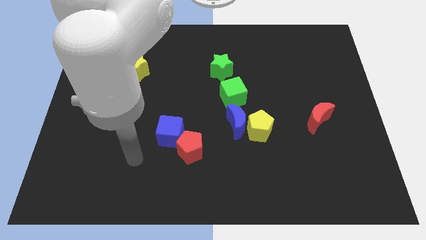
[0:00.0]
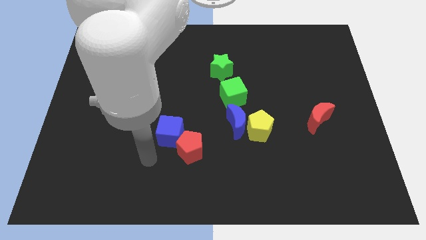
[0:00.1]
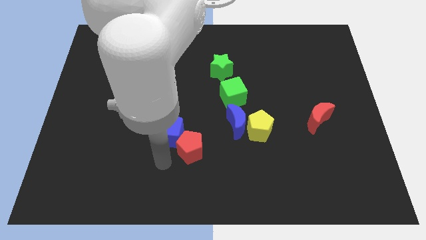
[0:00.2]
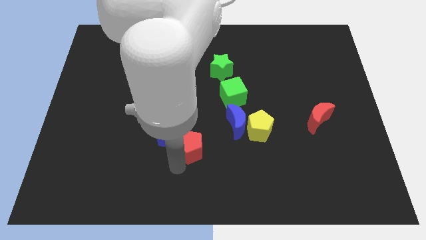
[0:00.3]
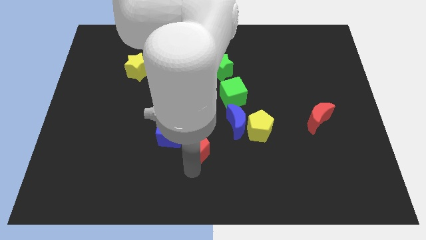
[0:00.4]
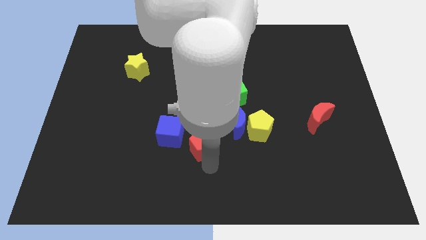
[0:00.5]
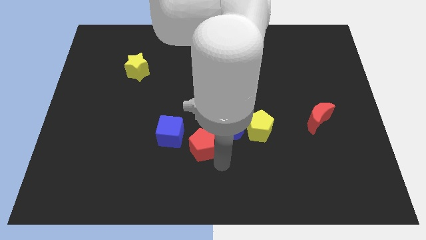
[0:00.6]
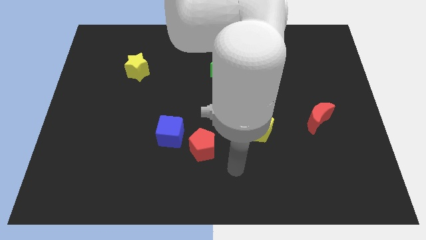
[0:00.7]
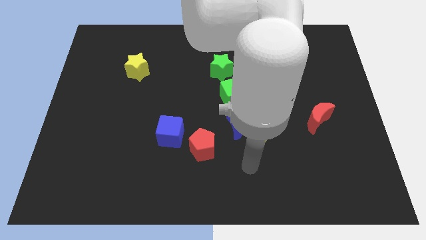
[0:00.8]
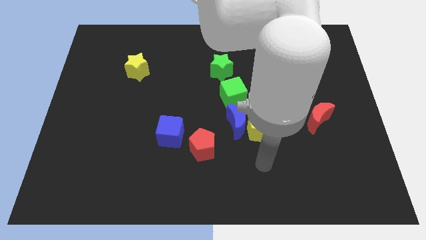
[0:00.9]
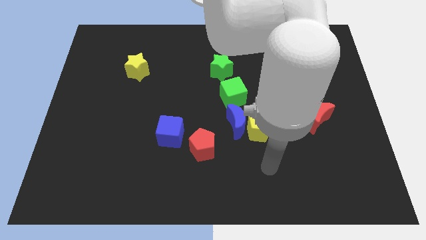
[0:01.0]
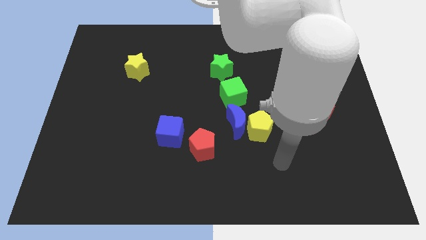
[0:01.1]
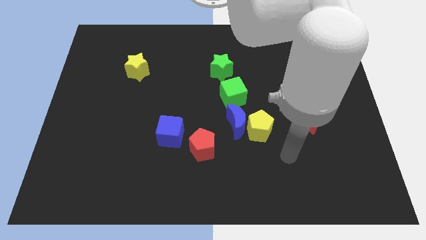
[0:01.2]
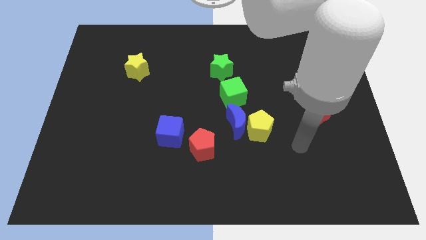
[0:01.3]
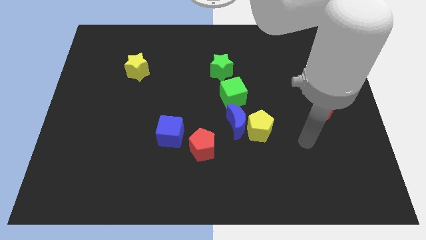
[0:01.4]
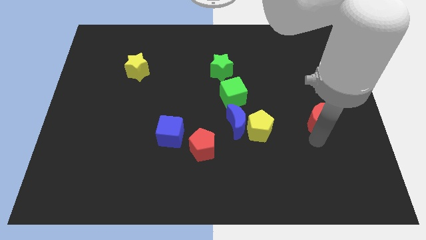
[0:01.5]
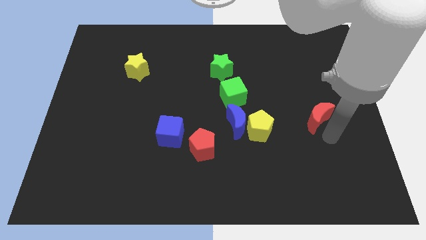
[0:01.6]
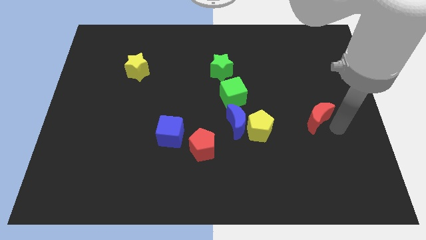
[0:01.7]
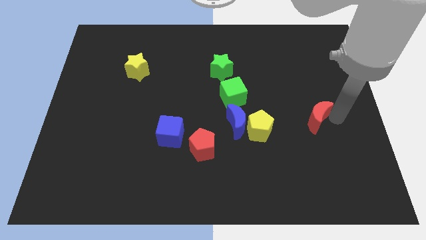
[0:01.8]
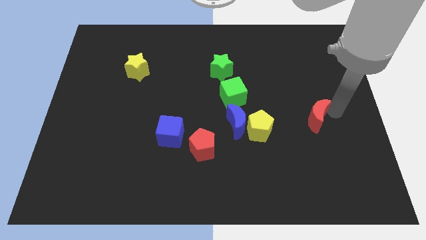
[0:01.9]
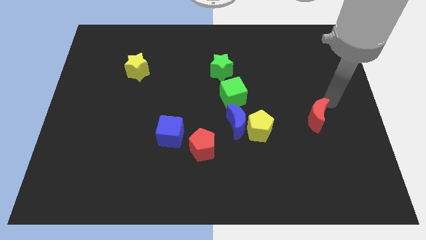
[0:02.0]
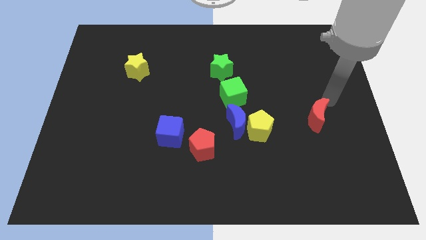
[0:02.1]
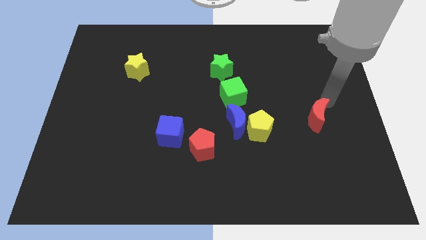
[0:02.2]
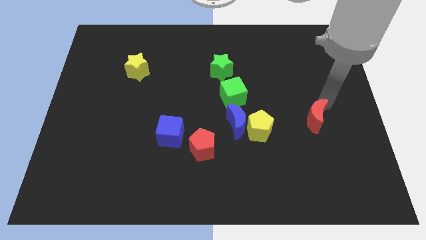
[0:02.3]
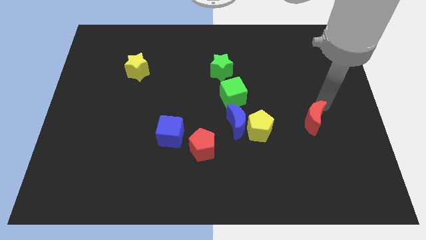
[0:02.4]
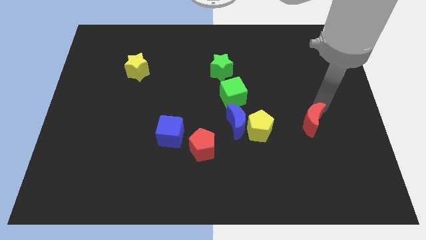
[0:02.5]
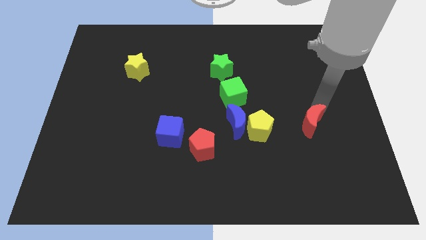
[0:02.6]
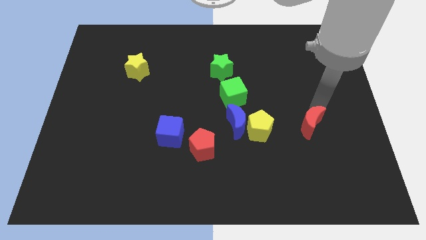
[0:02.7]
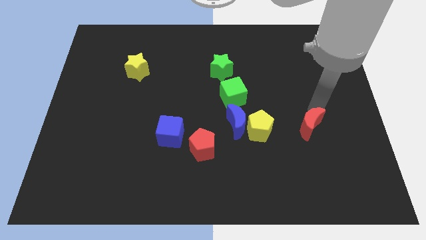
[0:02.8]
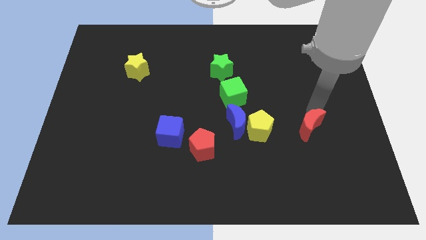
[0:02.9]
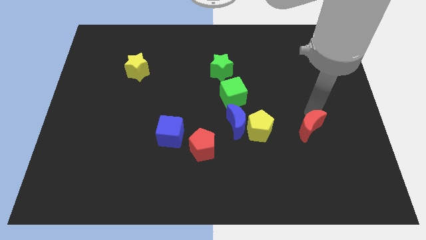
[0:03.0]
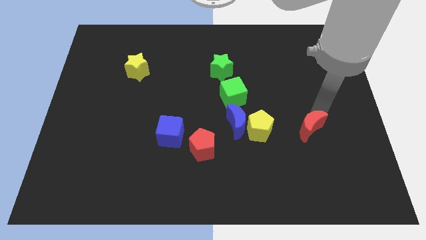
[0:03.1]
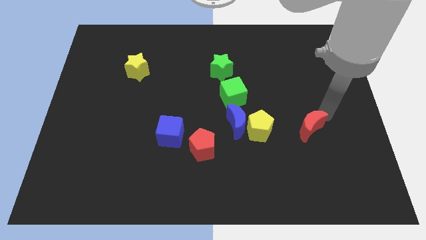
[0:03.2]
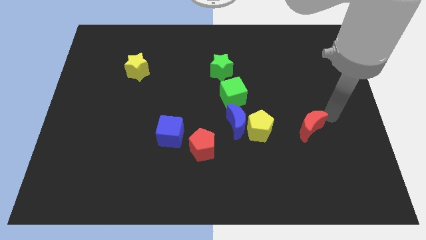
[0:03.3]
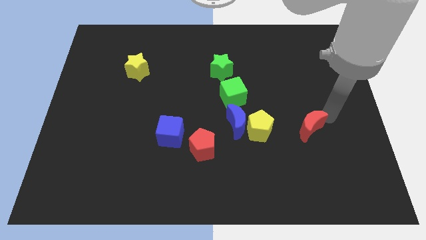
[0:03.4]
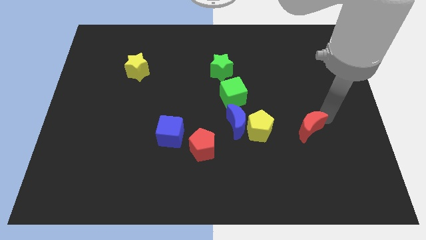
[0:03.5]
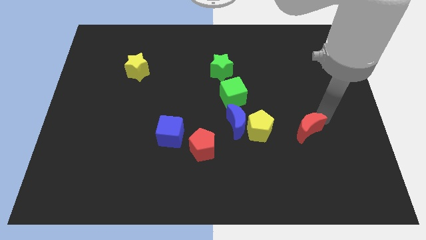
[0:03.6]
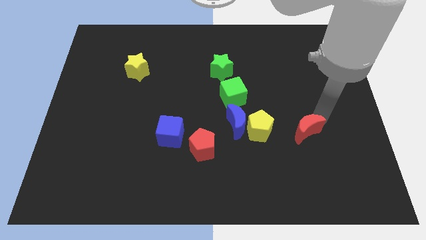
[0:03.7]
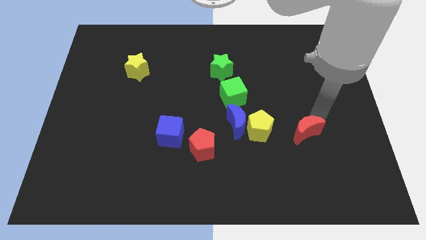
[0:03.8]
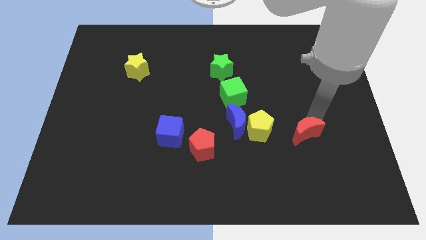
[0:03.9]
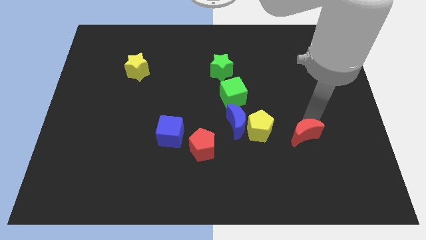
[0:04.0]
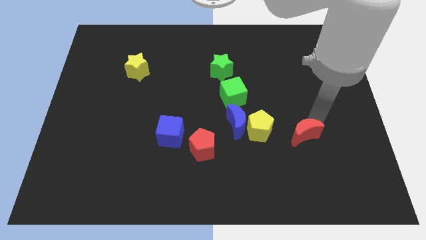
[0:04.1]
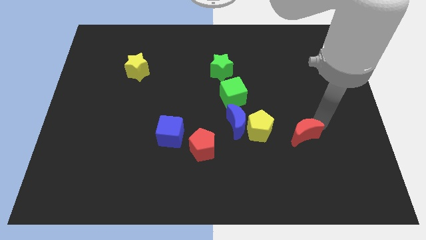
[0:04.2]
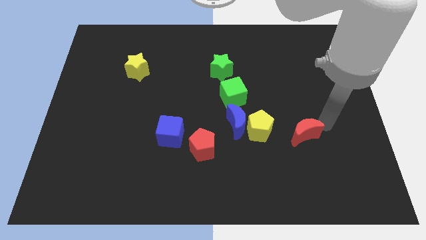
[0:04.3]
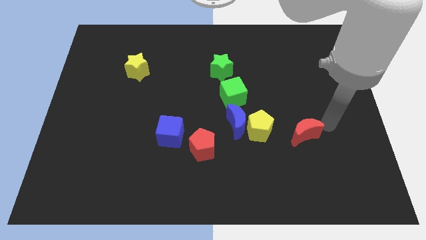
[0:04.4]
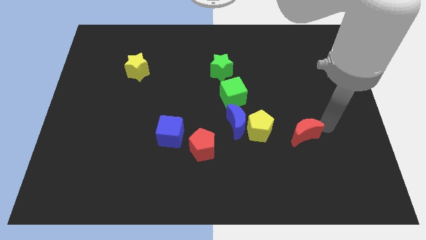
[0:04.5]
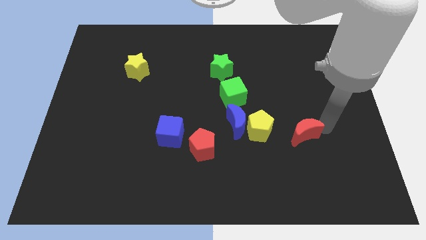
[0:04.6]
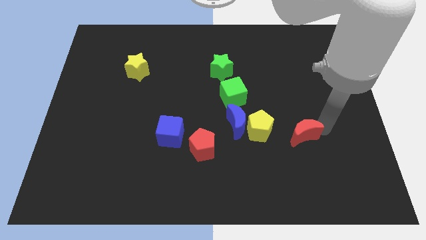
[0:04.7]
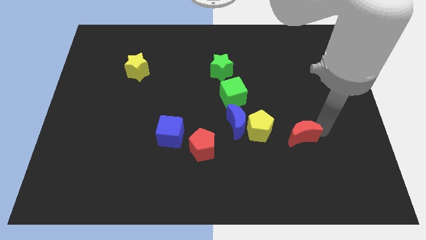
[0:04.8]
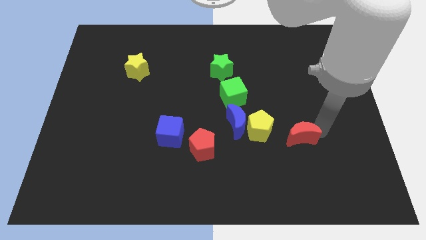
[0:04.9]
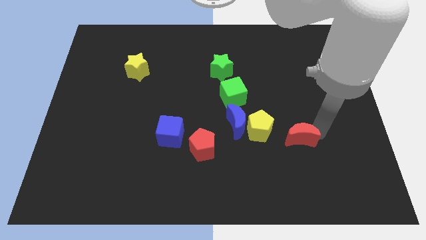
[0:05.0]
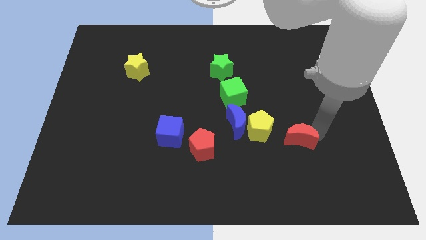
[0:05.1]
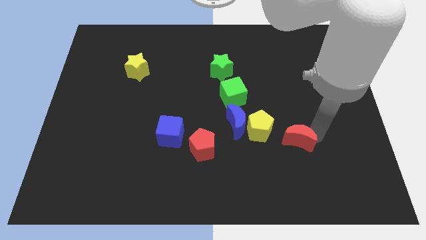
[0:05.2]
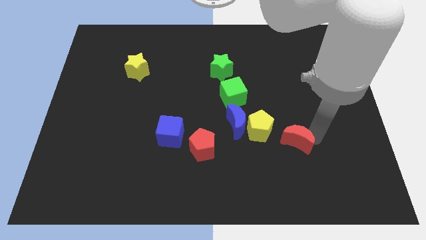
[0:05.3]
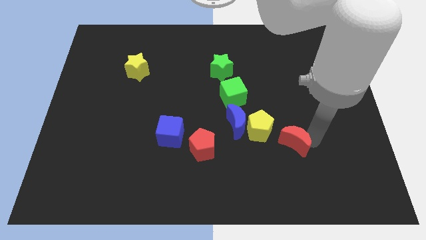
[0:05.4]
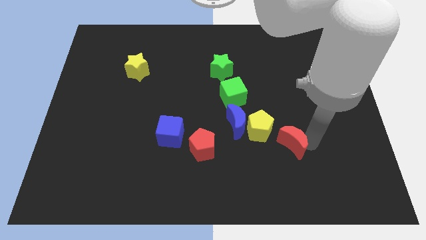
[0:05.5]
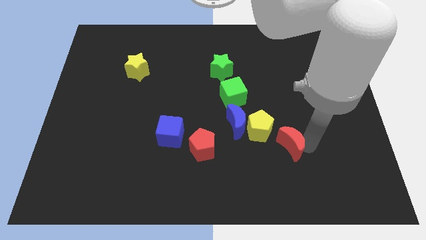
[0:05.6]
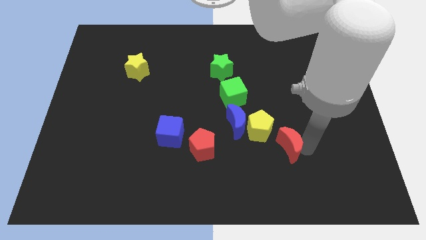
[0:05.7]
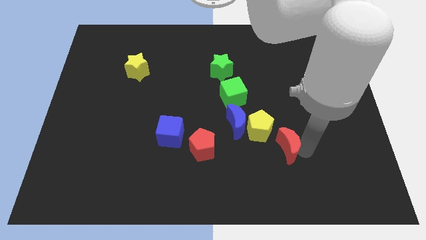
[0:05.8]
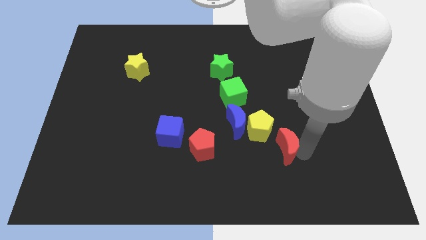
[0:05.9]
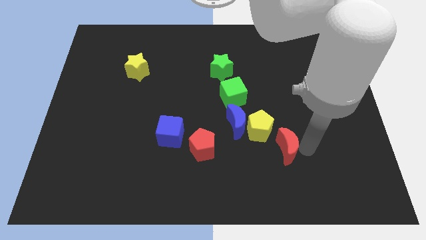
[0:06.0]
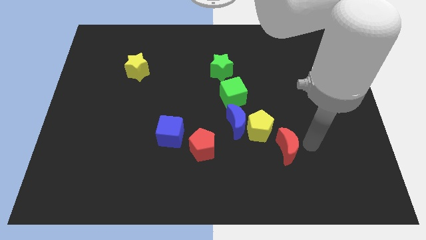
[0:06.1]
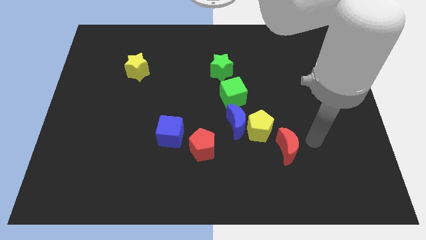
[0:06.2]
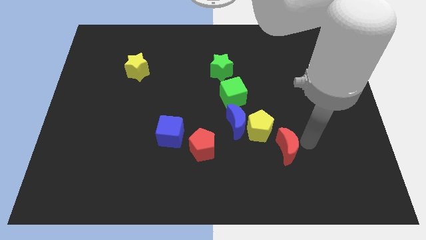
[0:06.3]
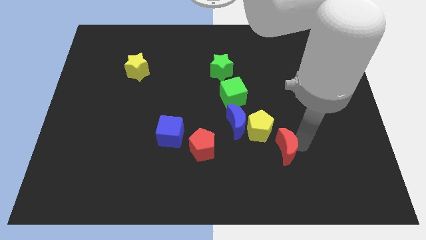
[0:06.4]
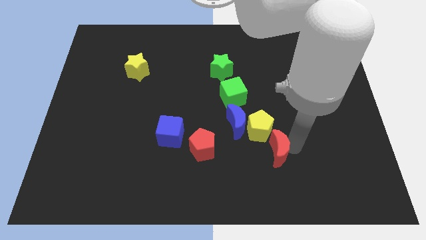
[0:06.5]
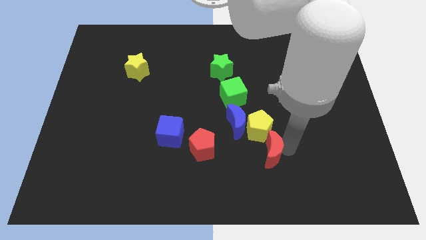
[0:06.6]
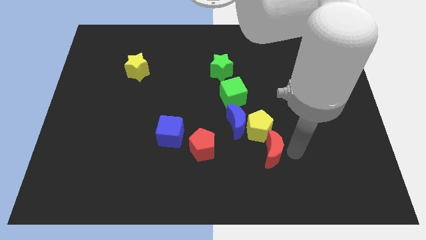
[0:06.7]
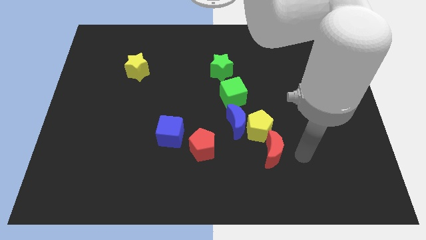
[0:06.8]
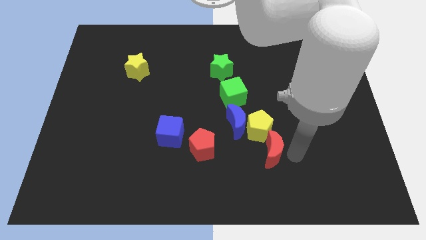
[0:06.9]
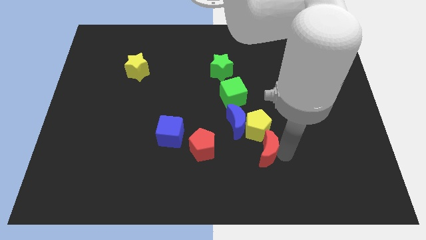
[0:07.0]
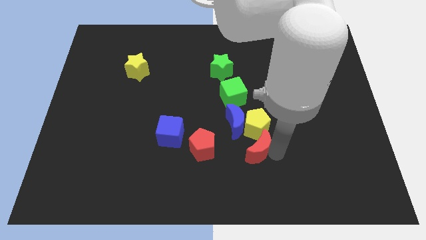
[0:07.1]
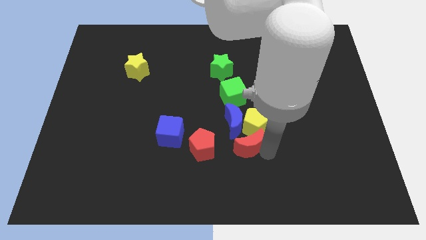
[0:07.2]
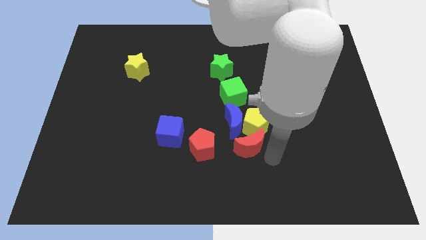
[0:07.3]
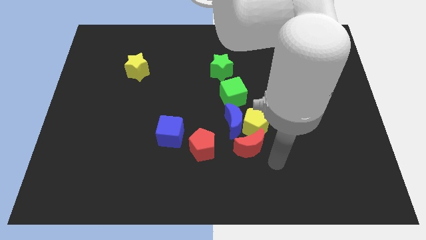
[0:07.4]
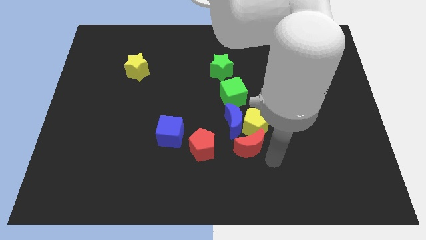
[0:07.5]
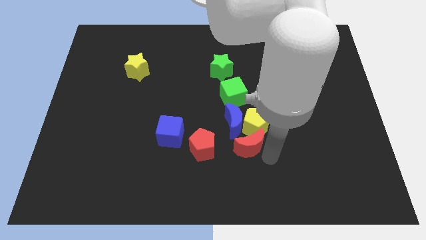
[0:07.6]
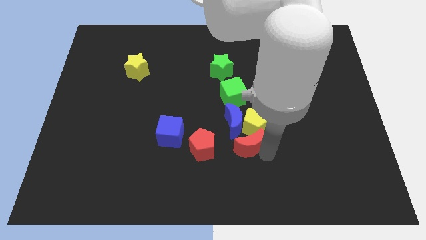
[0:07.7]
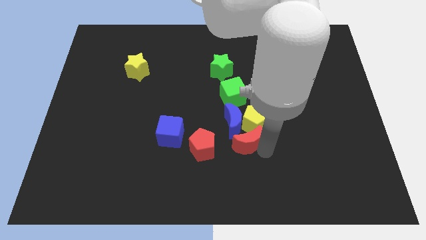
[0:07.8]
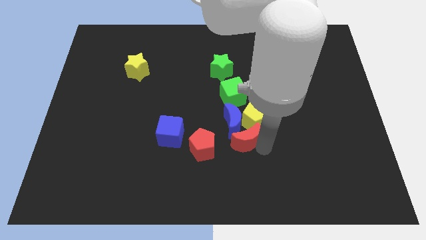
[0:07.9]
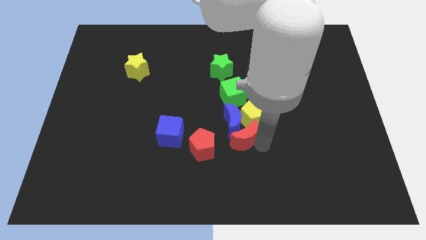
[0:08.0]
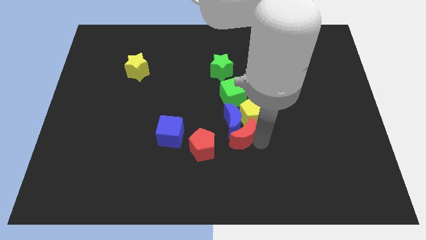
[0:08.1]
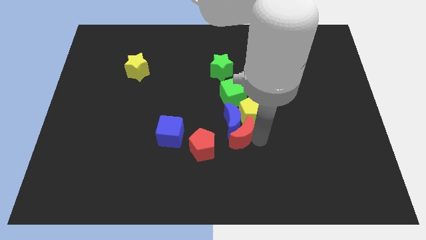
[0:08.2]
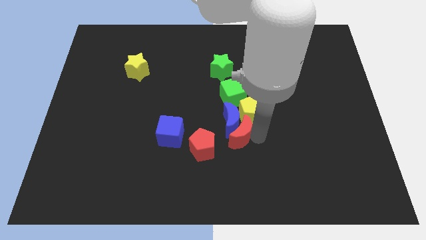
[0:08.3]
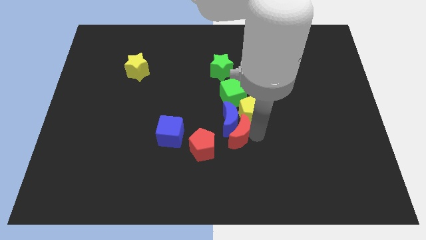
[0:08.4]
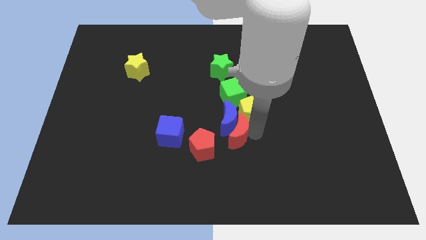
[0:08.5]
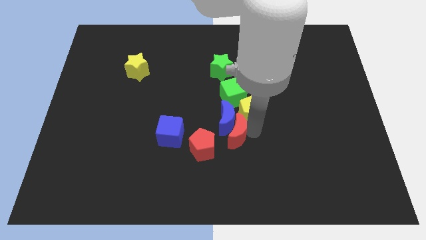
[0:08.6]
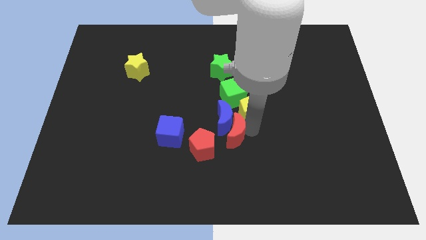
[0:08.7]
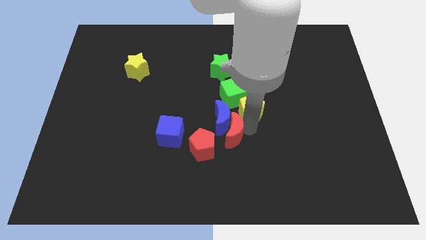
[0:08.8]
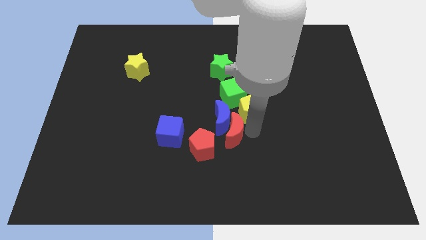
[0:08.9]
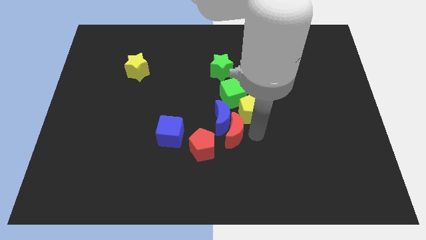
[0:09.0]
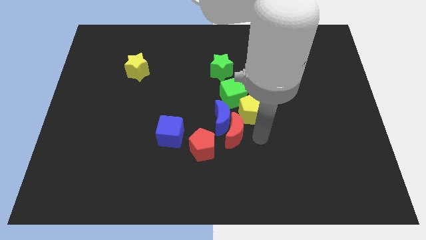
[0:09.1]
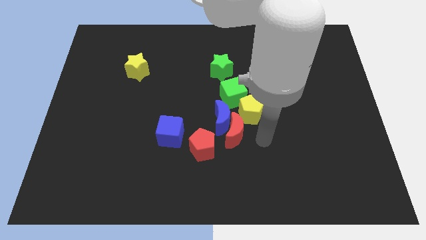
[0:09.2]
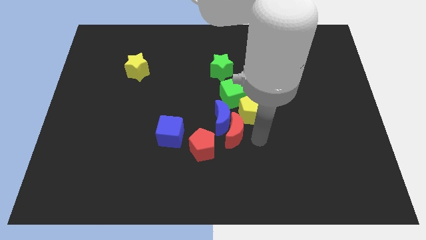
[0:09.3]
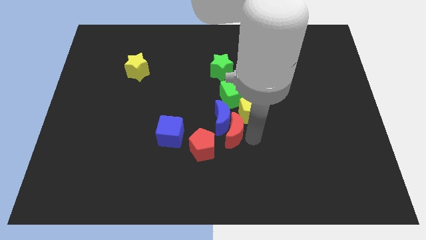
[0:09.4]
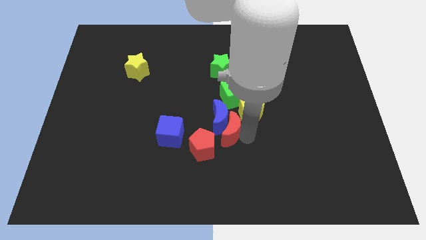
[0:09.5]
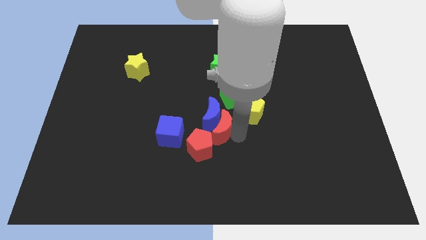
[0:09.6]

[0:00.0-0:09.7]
slide the red moon to the left
